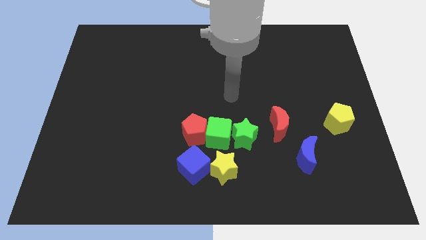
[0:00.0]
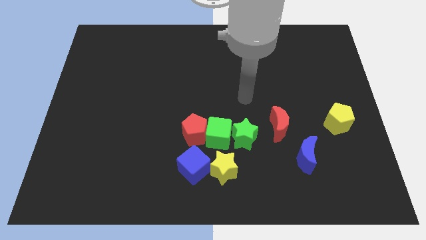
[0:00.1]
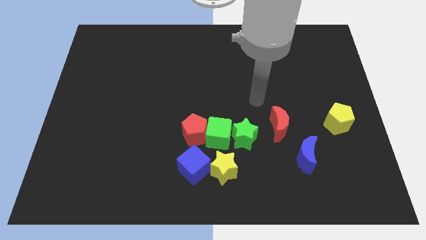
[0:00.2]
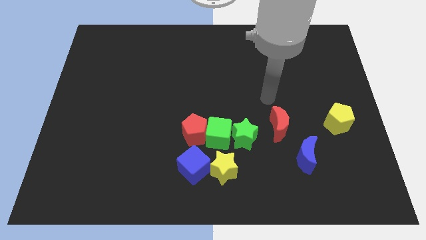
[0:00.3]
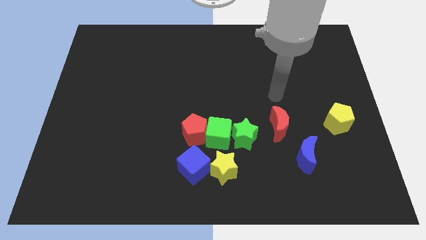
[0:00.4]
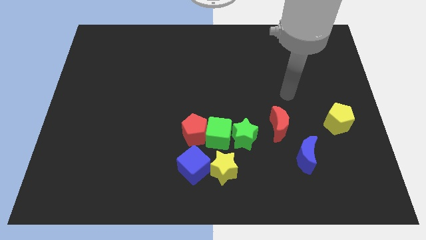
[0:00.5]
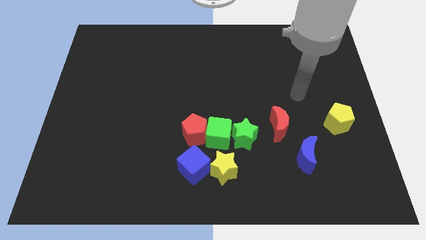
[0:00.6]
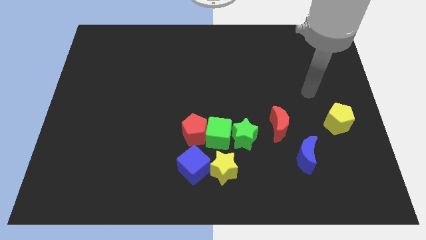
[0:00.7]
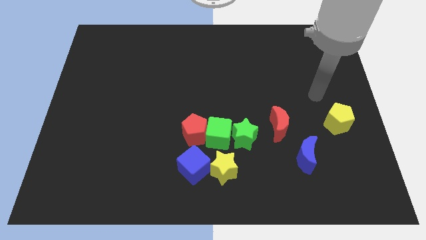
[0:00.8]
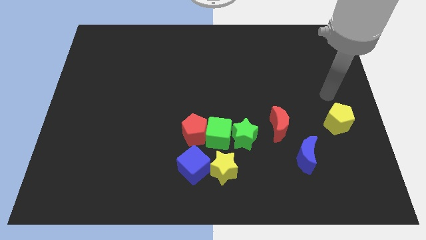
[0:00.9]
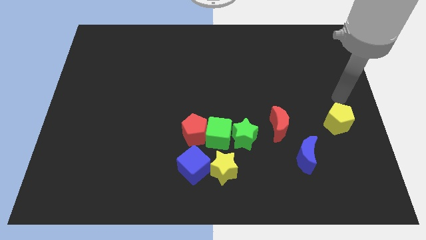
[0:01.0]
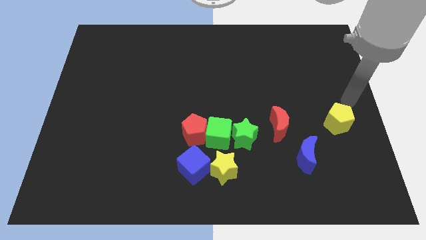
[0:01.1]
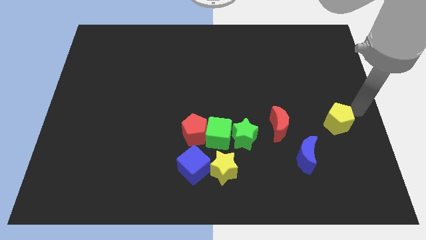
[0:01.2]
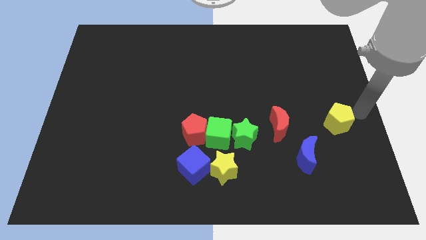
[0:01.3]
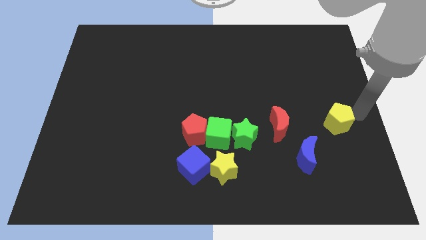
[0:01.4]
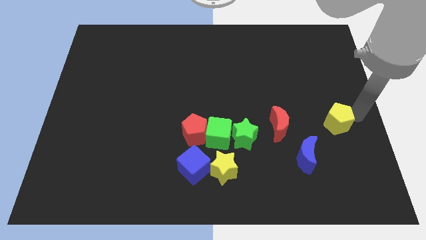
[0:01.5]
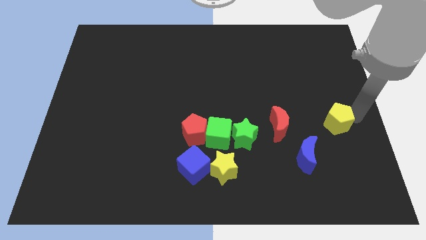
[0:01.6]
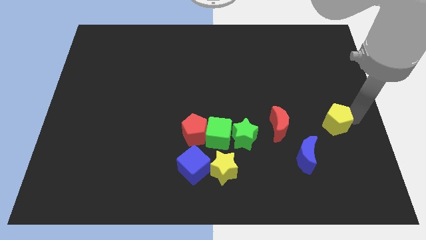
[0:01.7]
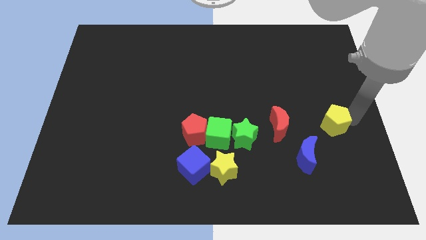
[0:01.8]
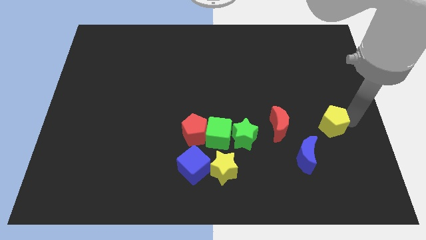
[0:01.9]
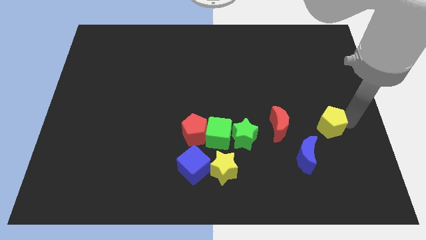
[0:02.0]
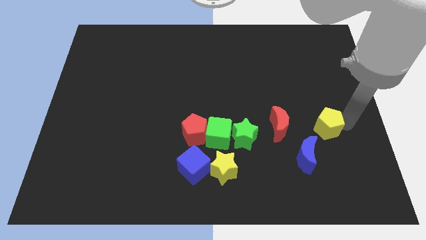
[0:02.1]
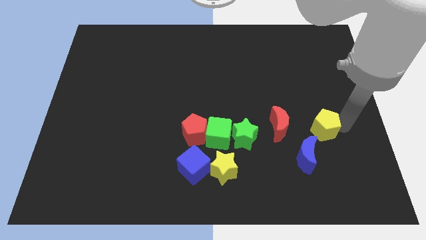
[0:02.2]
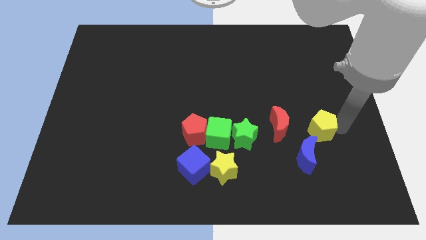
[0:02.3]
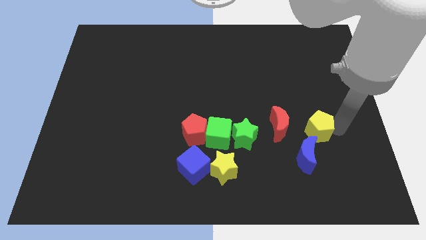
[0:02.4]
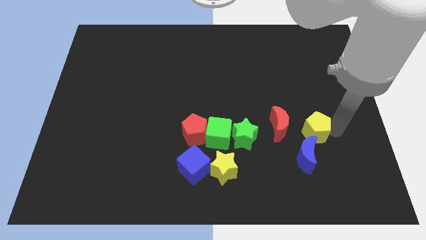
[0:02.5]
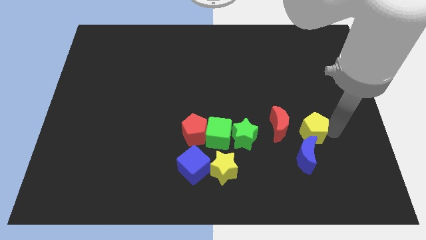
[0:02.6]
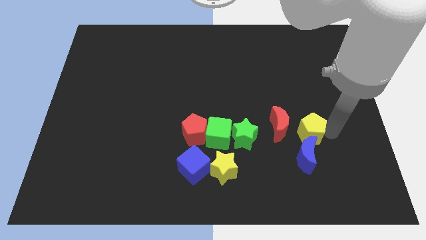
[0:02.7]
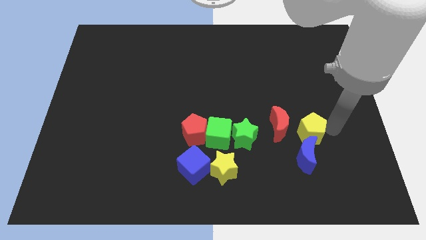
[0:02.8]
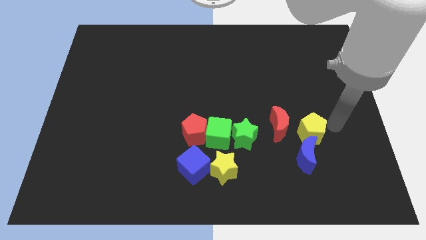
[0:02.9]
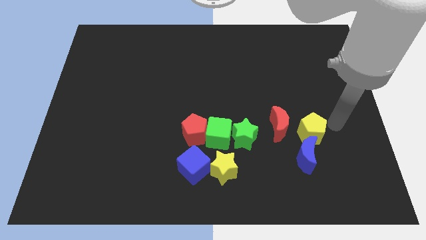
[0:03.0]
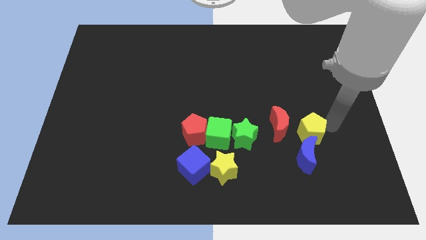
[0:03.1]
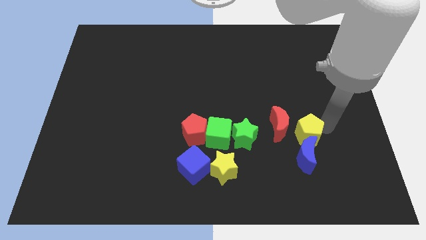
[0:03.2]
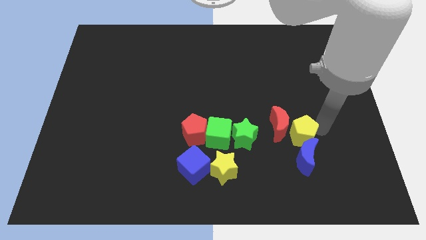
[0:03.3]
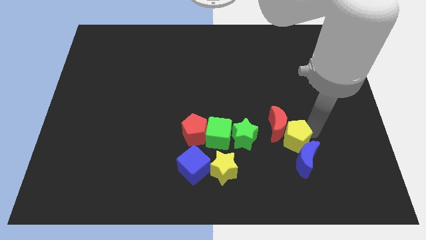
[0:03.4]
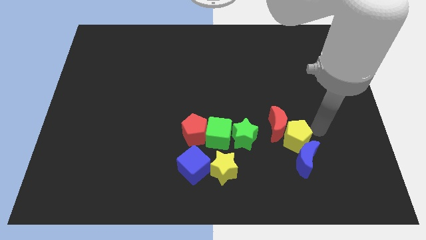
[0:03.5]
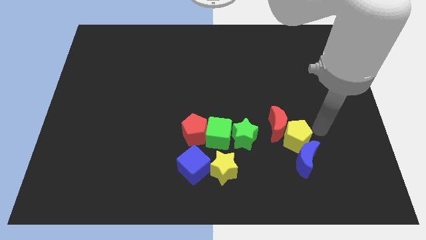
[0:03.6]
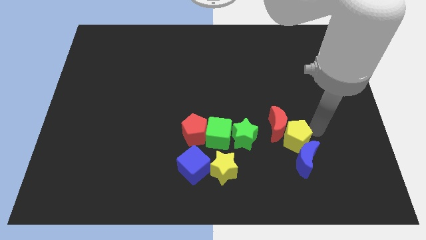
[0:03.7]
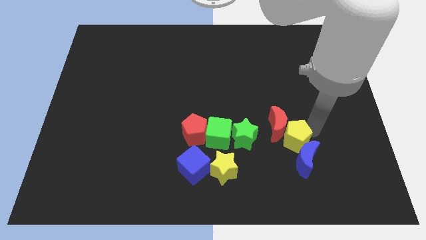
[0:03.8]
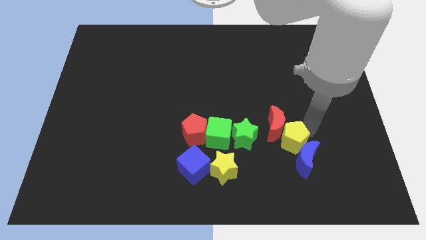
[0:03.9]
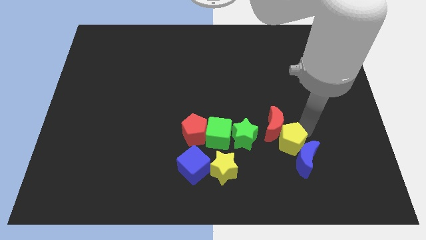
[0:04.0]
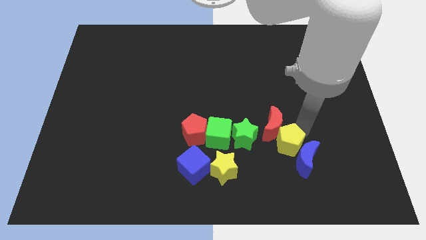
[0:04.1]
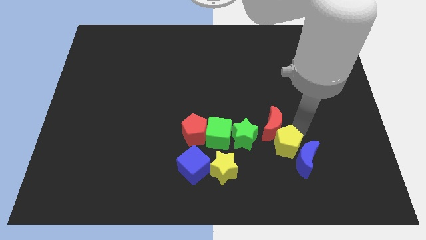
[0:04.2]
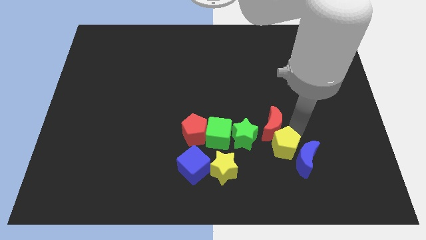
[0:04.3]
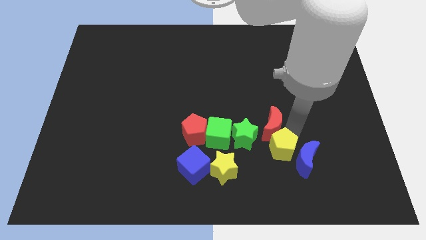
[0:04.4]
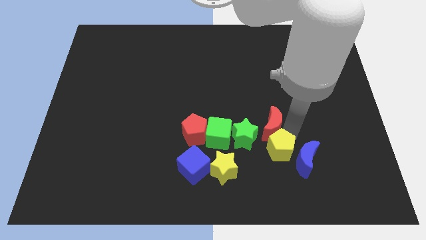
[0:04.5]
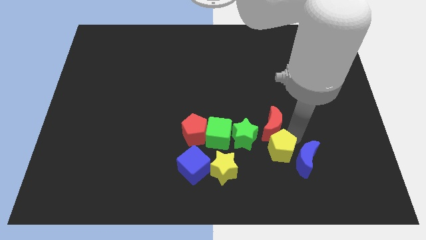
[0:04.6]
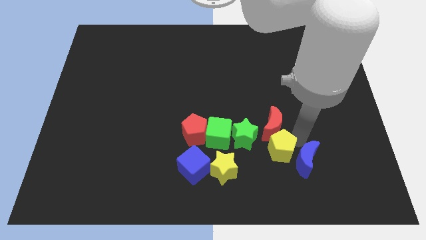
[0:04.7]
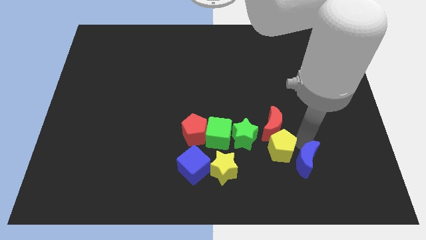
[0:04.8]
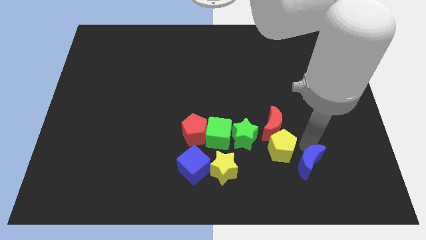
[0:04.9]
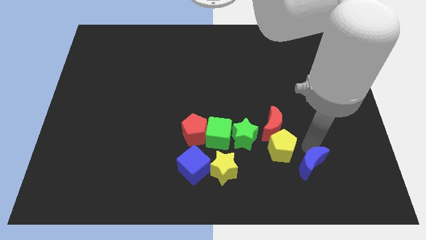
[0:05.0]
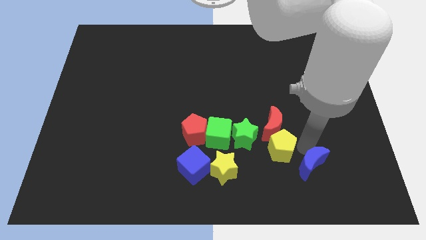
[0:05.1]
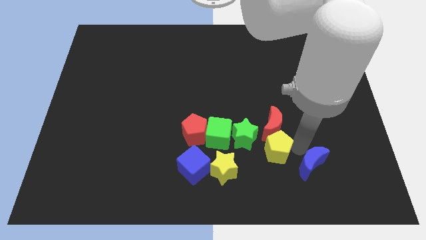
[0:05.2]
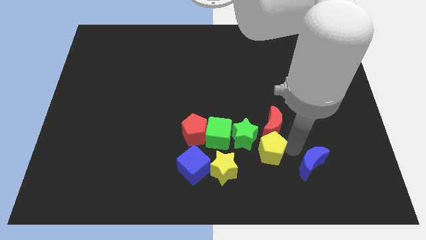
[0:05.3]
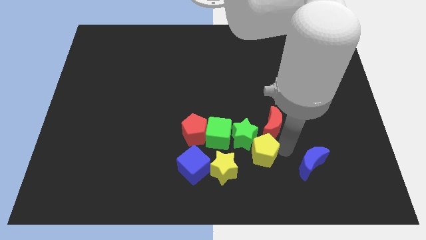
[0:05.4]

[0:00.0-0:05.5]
move the yellow pentagon to the bottom right of the green cube

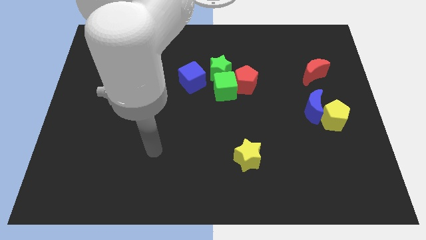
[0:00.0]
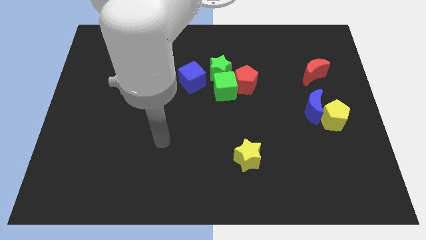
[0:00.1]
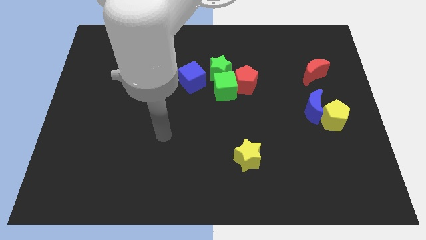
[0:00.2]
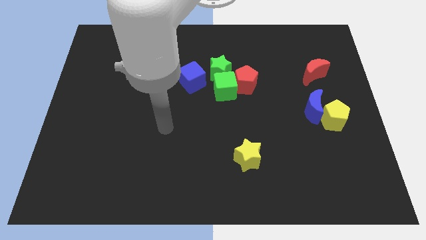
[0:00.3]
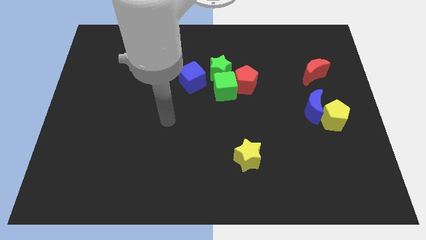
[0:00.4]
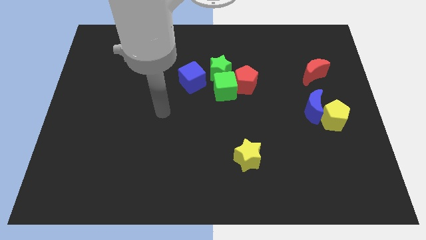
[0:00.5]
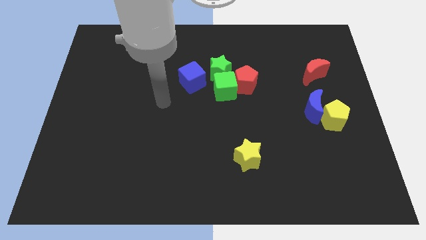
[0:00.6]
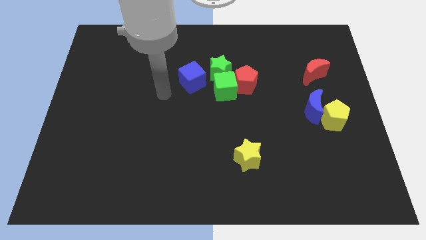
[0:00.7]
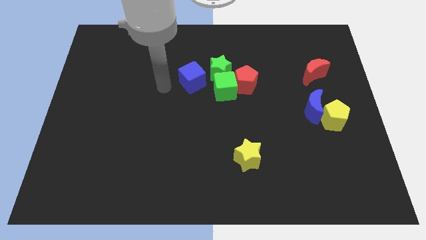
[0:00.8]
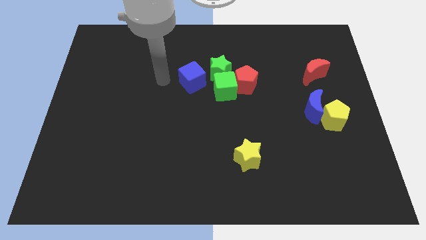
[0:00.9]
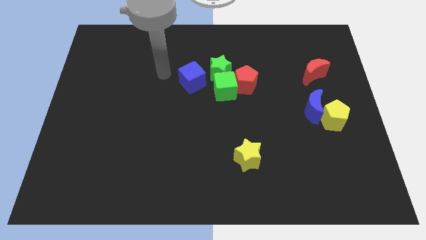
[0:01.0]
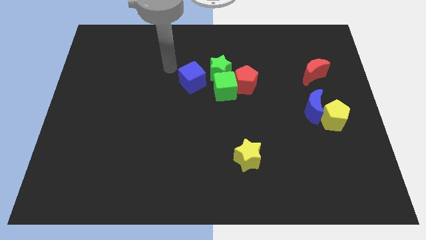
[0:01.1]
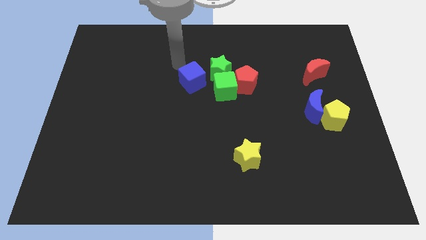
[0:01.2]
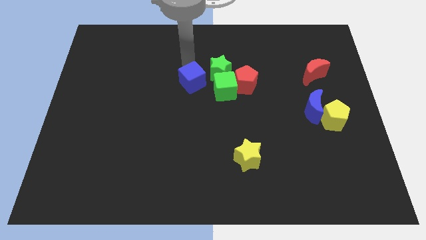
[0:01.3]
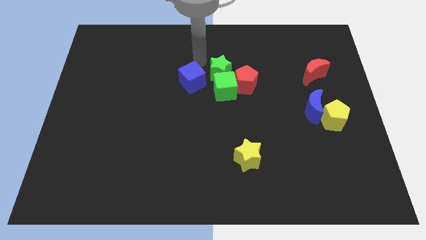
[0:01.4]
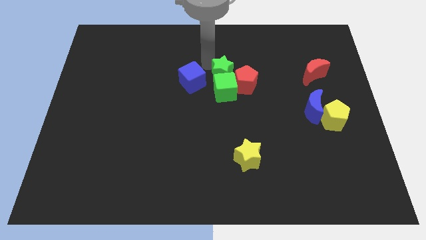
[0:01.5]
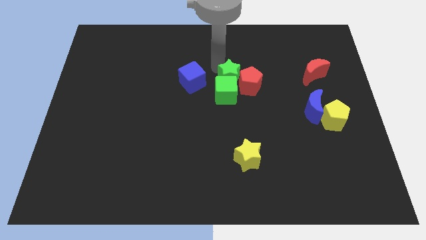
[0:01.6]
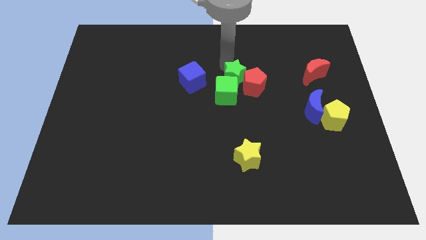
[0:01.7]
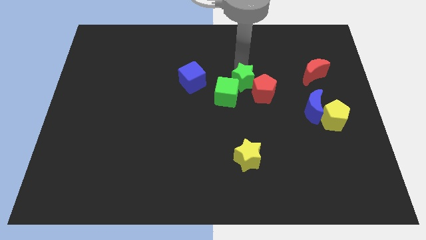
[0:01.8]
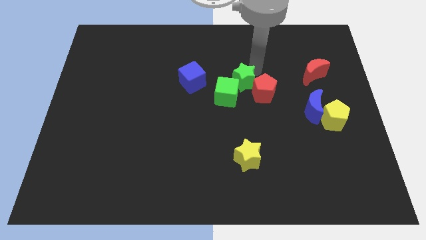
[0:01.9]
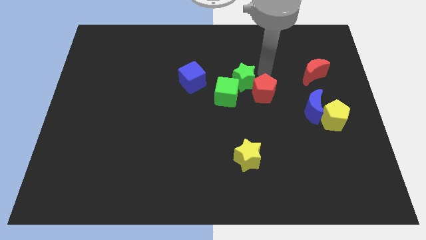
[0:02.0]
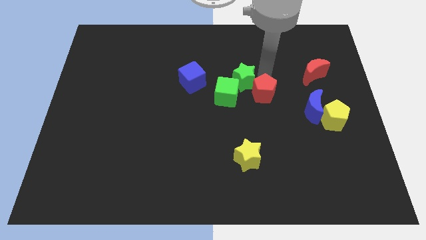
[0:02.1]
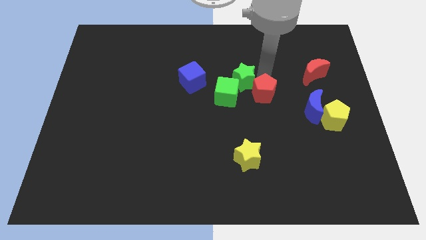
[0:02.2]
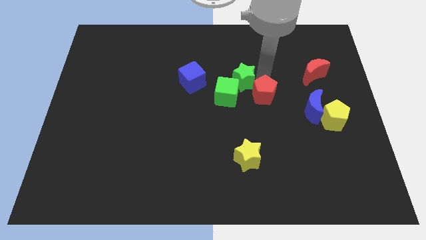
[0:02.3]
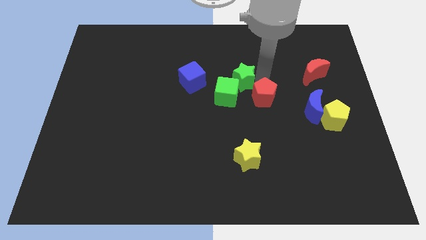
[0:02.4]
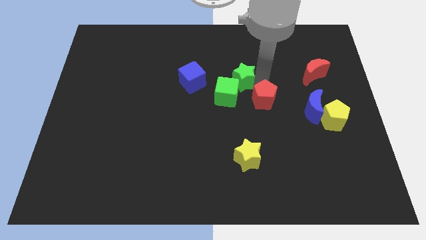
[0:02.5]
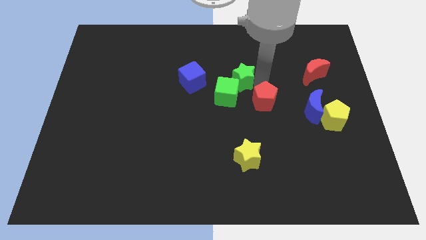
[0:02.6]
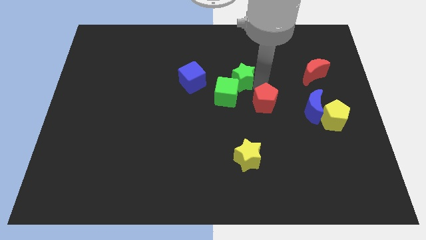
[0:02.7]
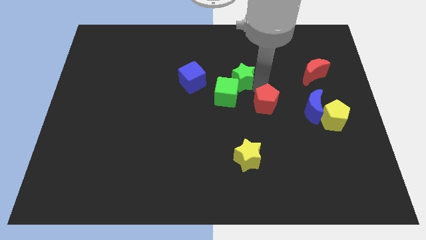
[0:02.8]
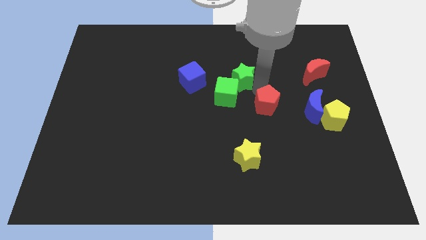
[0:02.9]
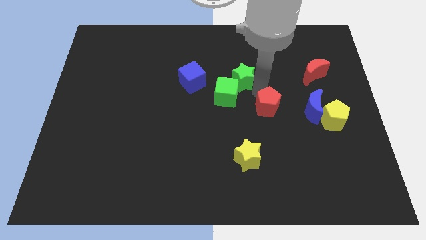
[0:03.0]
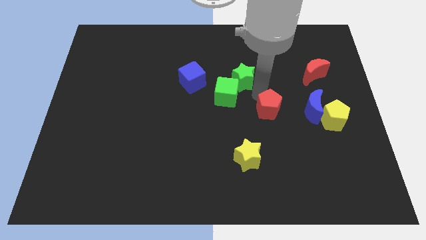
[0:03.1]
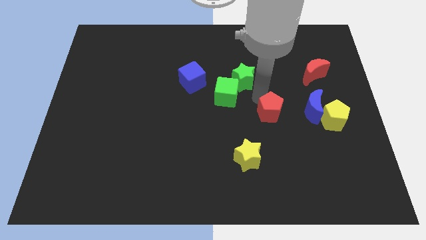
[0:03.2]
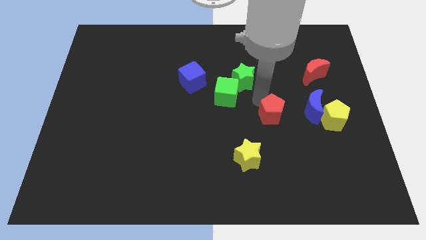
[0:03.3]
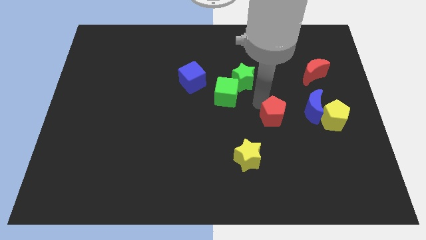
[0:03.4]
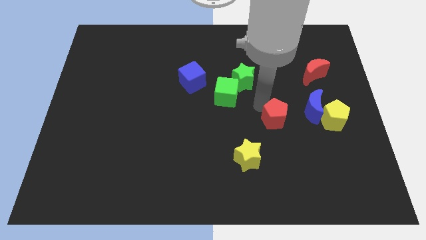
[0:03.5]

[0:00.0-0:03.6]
put the red pentagon to the top right side of the yellow star
